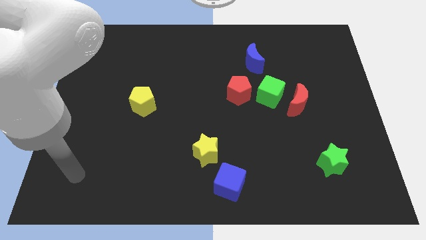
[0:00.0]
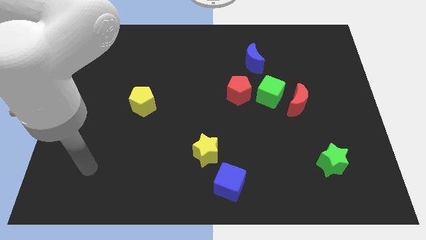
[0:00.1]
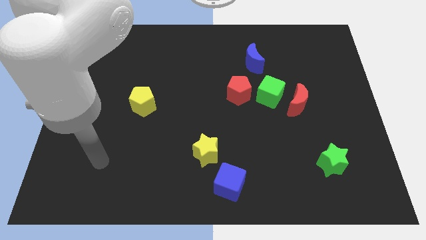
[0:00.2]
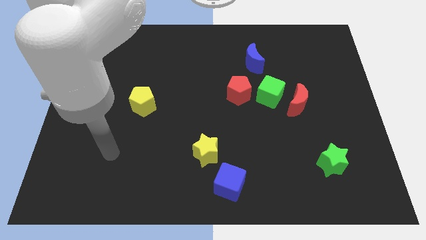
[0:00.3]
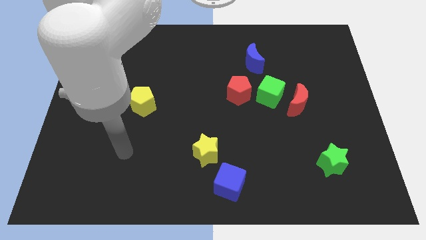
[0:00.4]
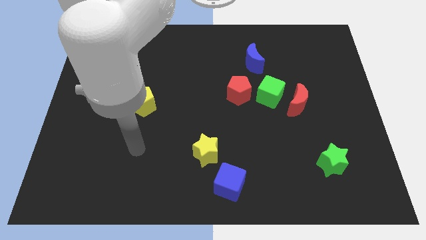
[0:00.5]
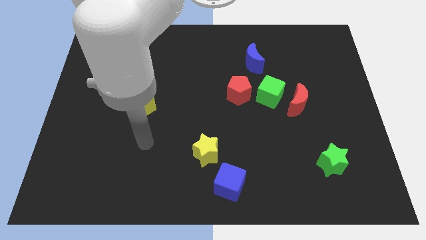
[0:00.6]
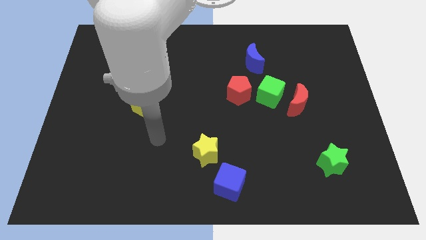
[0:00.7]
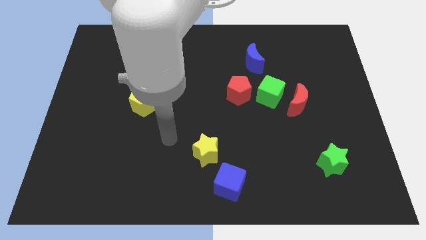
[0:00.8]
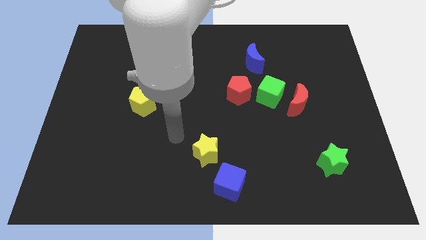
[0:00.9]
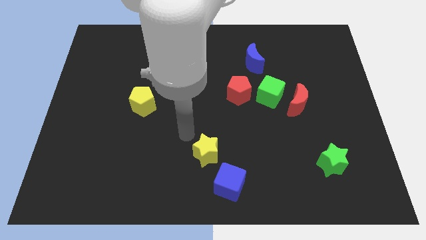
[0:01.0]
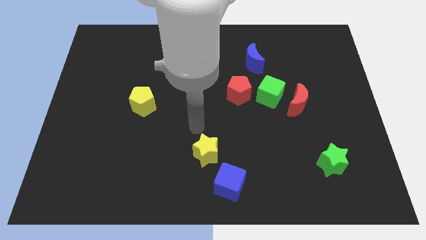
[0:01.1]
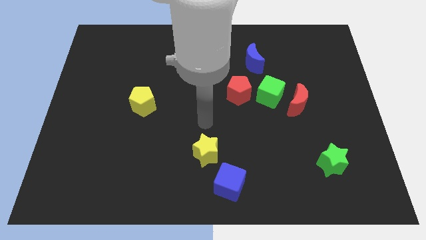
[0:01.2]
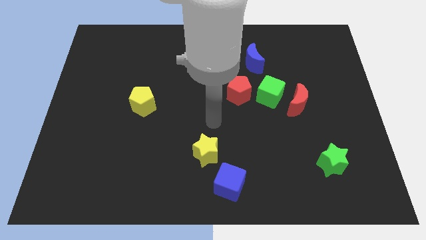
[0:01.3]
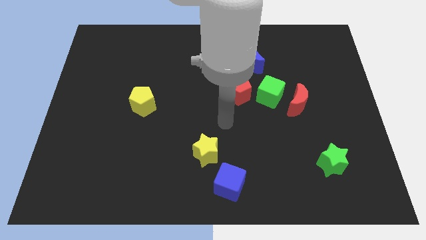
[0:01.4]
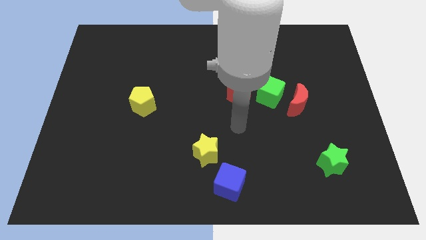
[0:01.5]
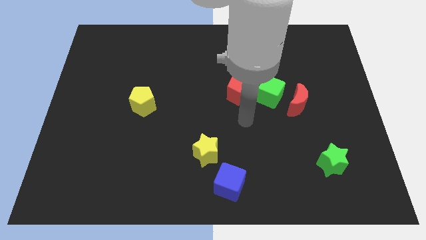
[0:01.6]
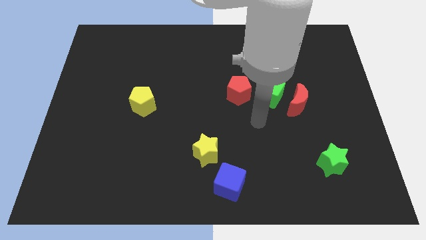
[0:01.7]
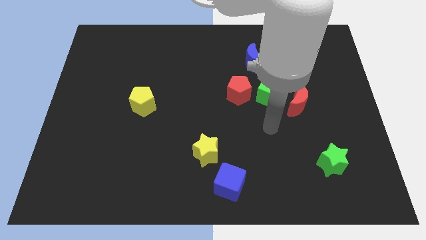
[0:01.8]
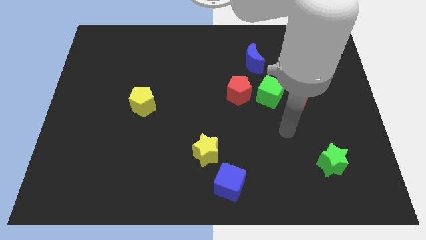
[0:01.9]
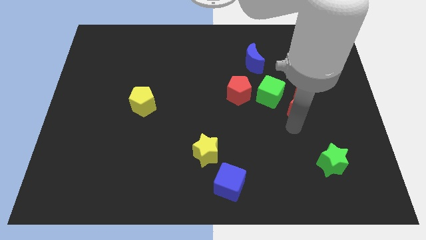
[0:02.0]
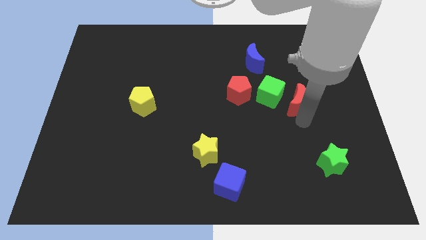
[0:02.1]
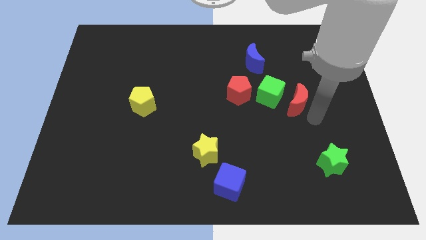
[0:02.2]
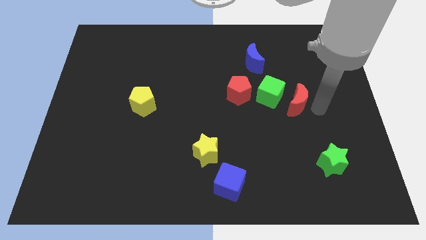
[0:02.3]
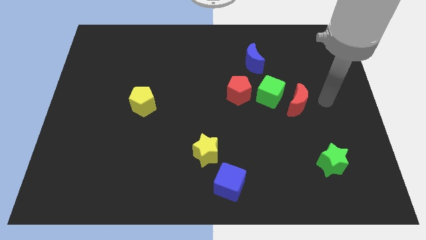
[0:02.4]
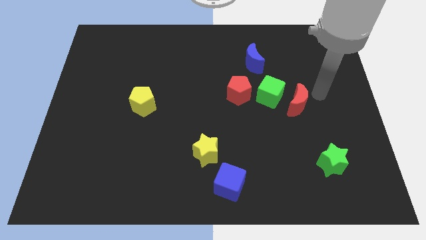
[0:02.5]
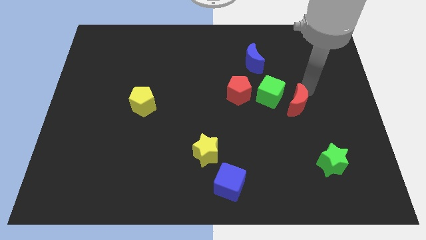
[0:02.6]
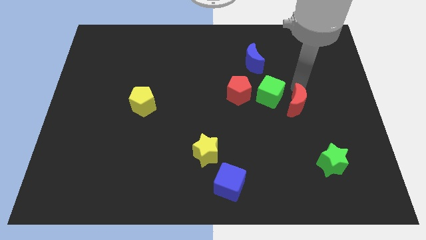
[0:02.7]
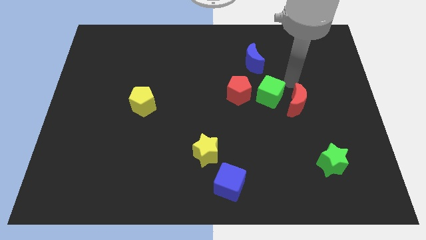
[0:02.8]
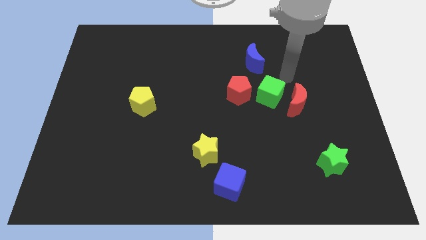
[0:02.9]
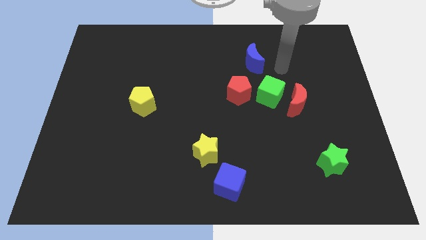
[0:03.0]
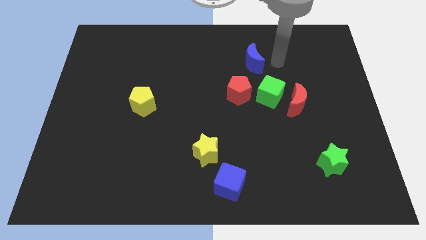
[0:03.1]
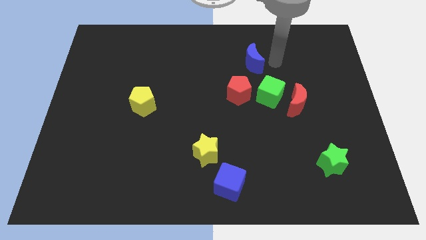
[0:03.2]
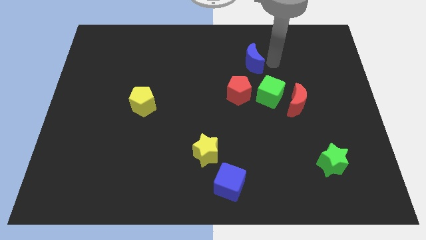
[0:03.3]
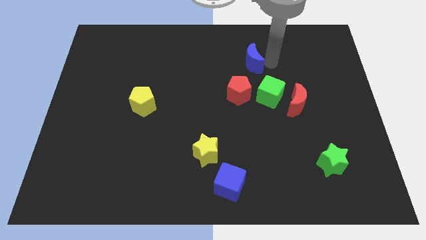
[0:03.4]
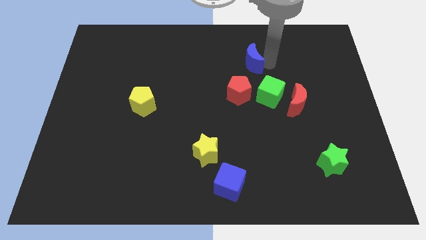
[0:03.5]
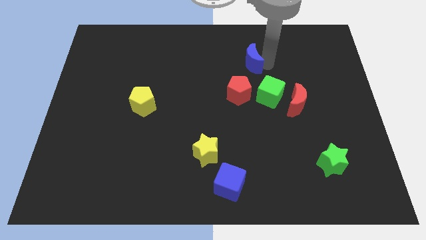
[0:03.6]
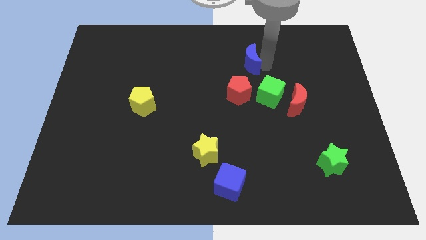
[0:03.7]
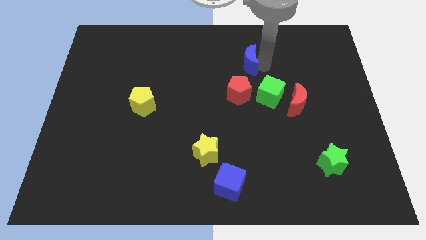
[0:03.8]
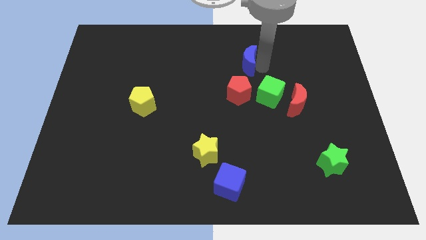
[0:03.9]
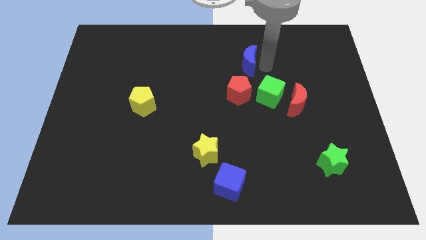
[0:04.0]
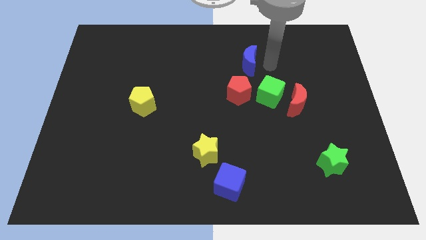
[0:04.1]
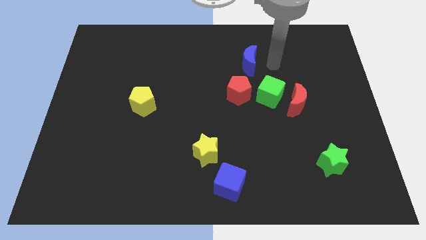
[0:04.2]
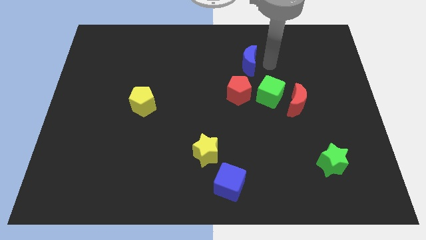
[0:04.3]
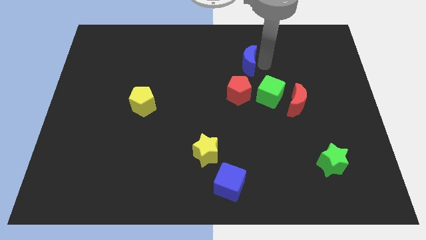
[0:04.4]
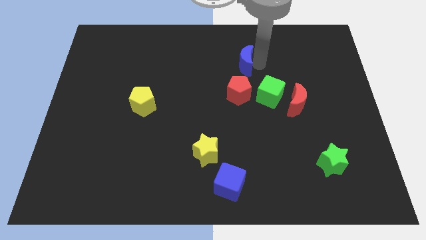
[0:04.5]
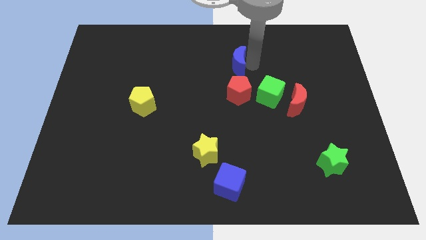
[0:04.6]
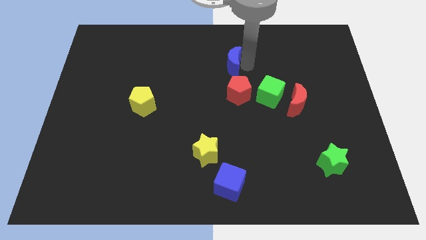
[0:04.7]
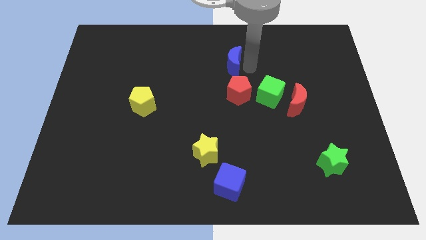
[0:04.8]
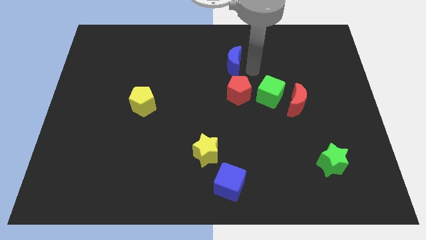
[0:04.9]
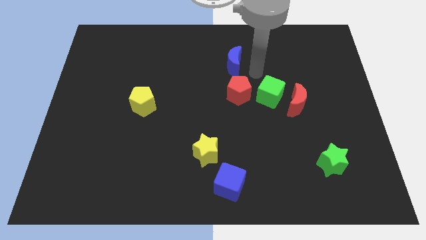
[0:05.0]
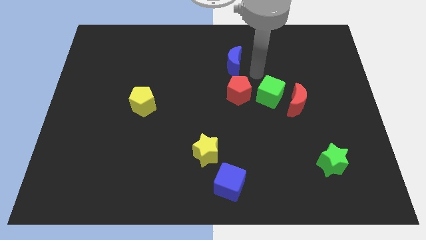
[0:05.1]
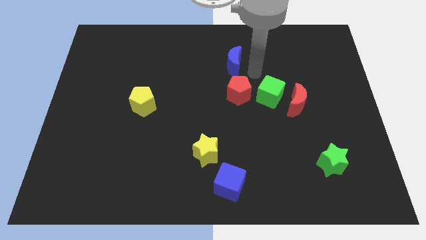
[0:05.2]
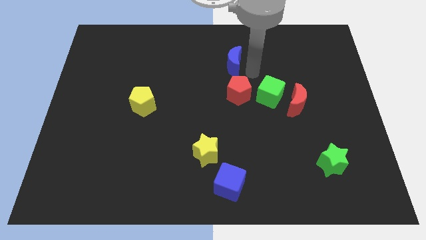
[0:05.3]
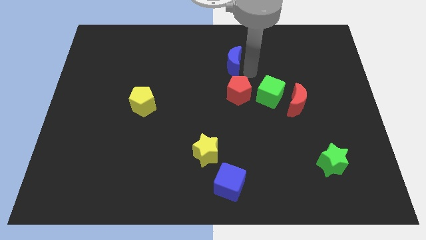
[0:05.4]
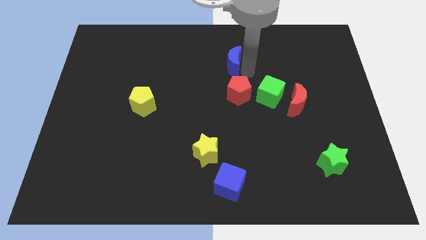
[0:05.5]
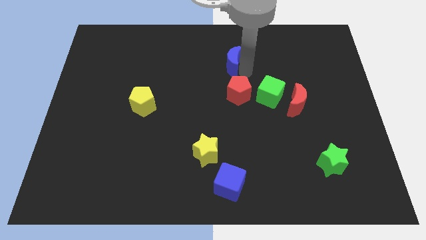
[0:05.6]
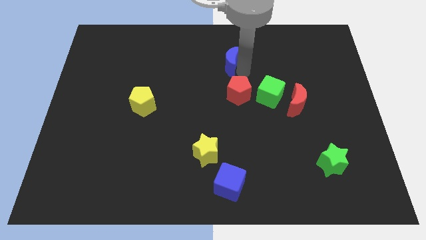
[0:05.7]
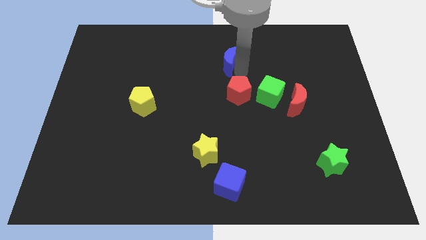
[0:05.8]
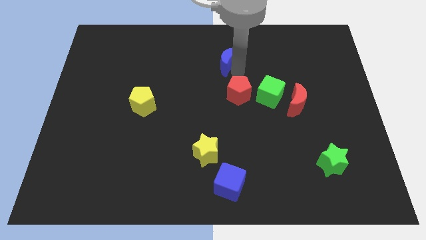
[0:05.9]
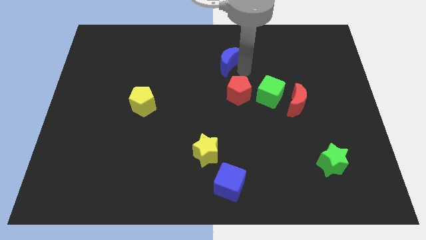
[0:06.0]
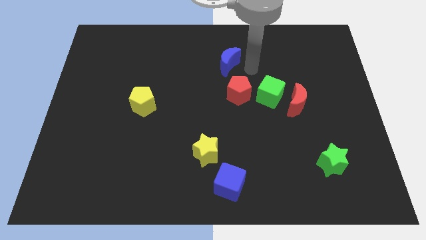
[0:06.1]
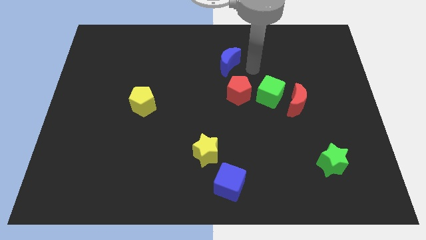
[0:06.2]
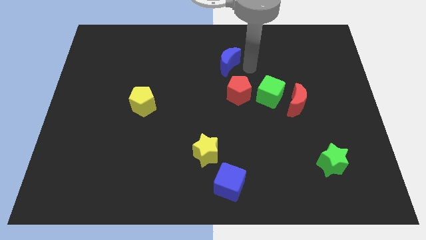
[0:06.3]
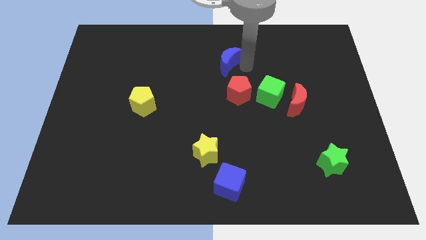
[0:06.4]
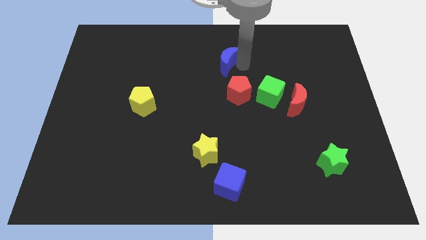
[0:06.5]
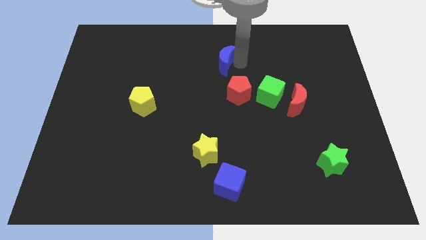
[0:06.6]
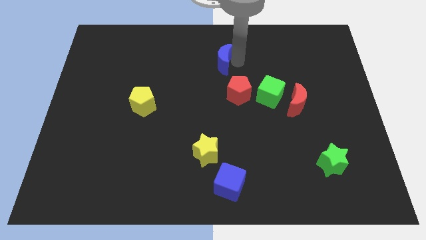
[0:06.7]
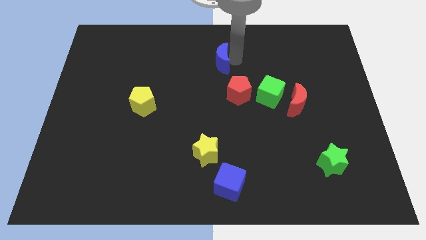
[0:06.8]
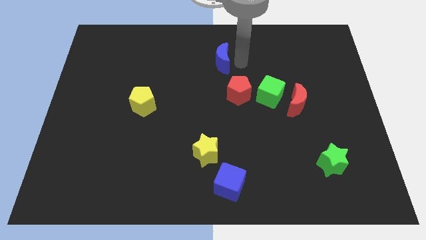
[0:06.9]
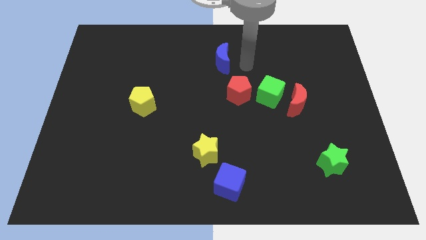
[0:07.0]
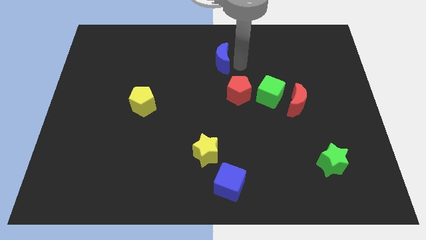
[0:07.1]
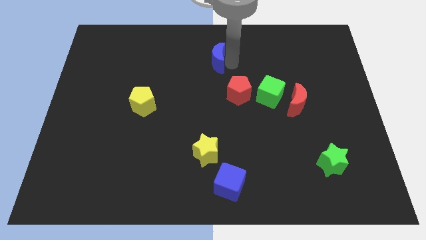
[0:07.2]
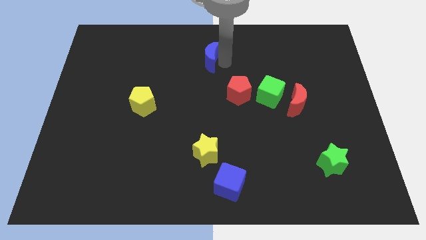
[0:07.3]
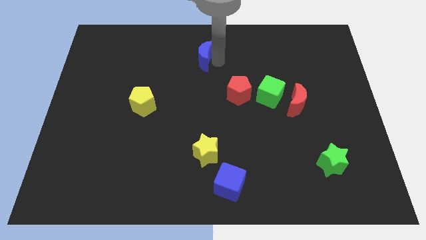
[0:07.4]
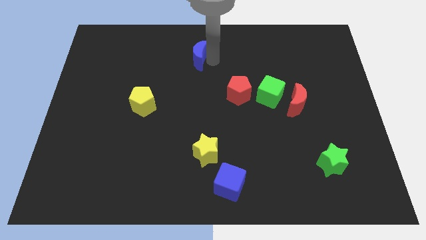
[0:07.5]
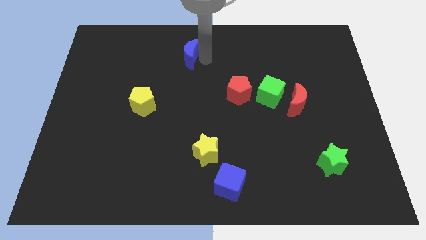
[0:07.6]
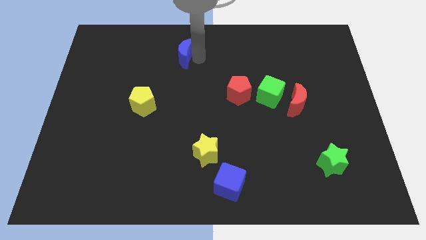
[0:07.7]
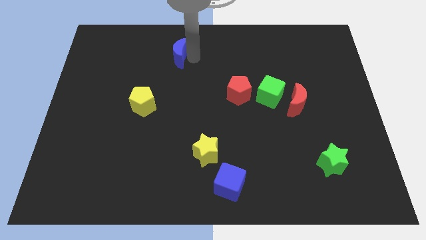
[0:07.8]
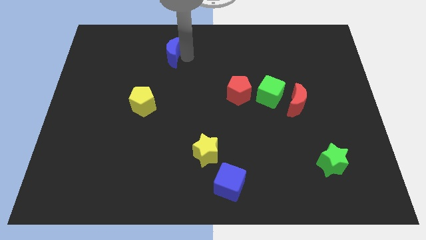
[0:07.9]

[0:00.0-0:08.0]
push the blue moon left

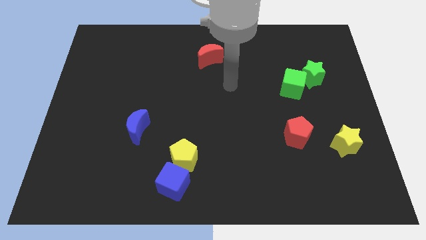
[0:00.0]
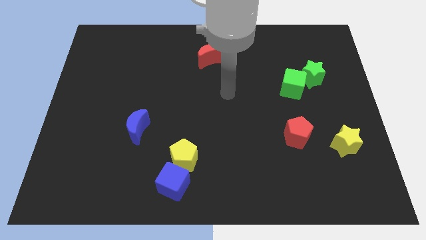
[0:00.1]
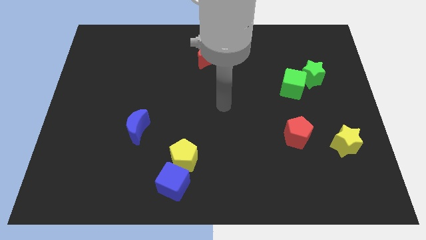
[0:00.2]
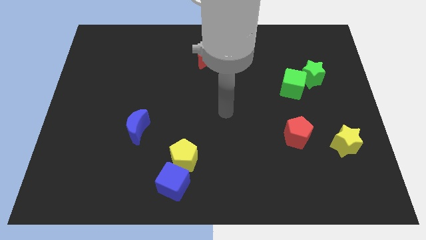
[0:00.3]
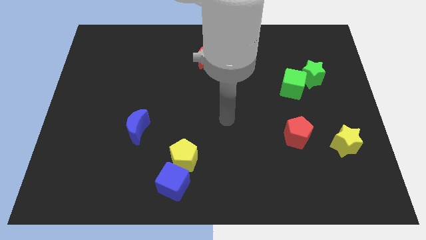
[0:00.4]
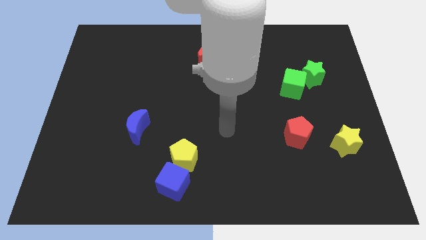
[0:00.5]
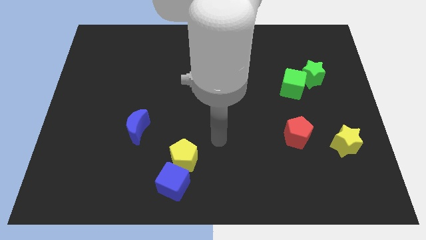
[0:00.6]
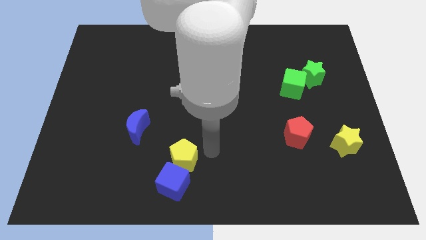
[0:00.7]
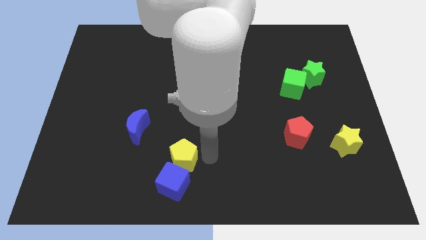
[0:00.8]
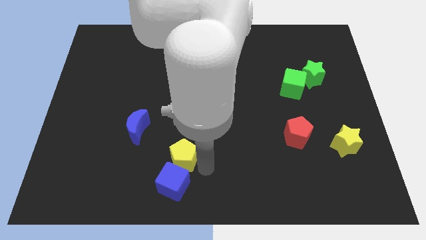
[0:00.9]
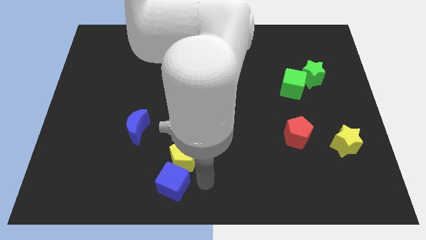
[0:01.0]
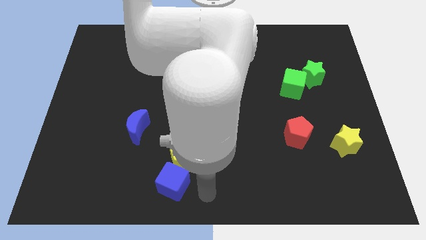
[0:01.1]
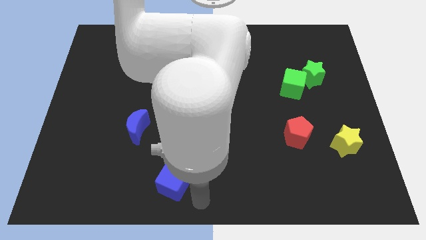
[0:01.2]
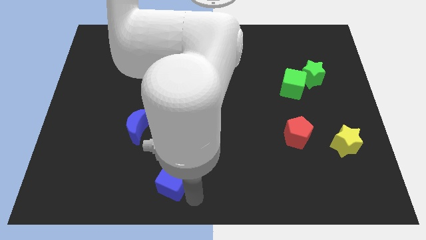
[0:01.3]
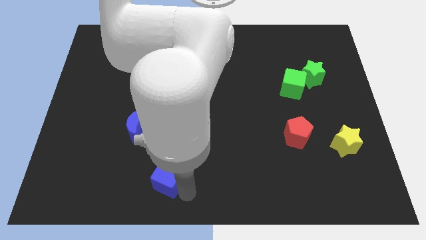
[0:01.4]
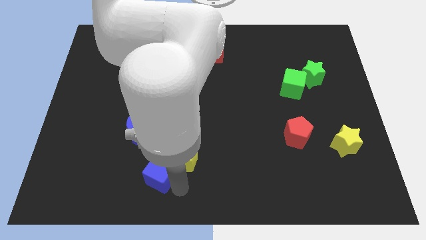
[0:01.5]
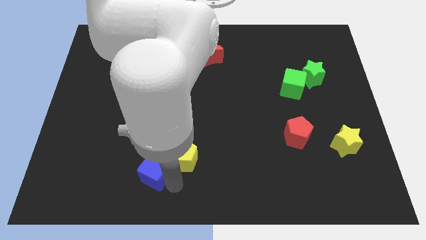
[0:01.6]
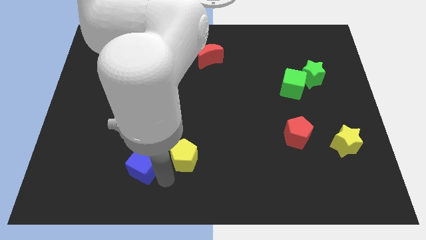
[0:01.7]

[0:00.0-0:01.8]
push the blue cube a bit upwards and to the left
